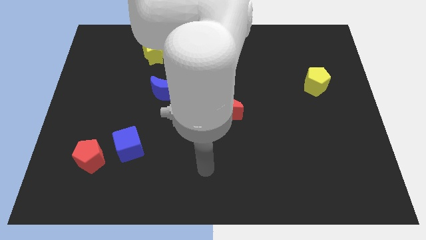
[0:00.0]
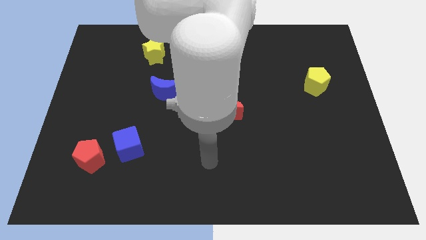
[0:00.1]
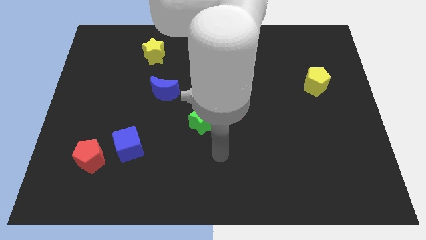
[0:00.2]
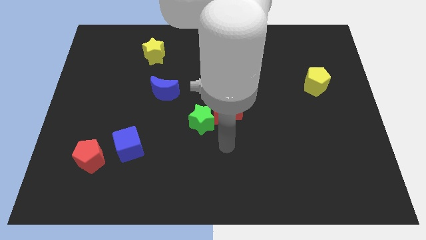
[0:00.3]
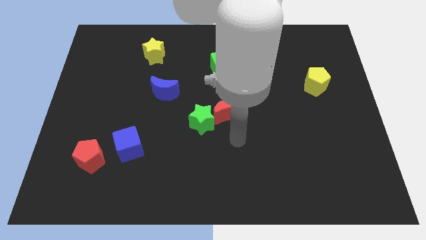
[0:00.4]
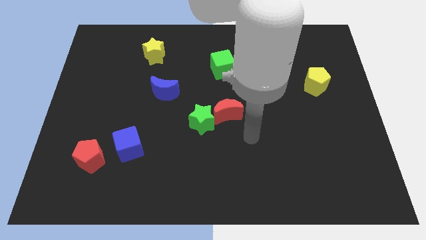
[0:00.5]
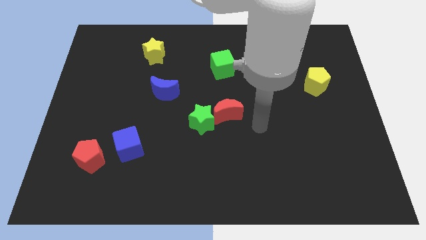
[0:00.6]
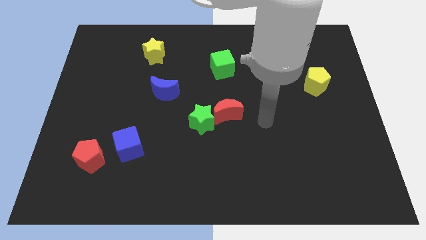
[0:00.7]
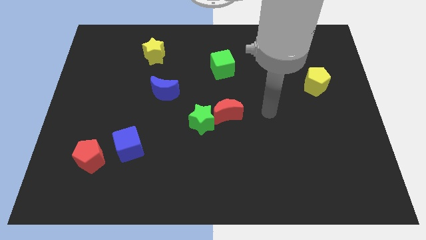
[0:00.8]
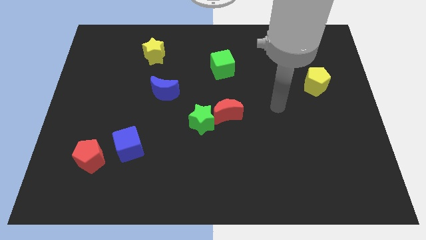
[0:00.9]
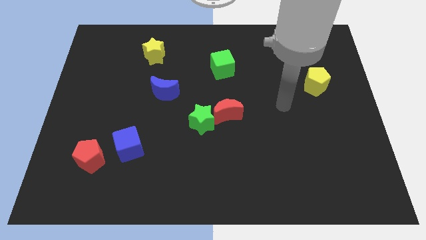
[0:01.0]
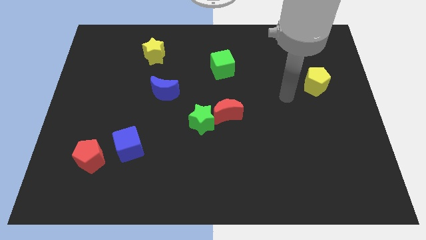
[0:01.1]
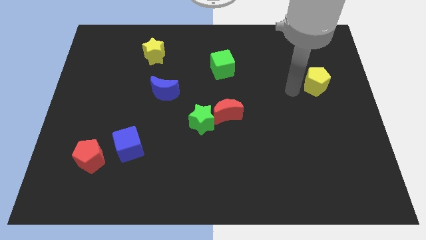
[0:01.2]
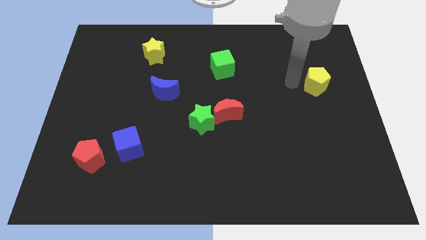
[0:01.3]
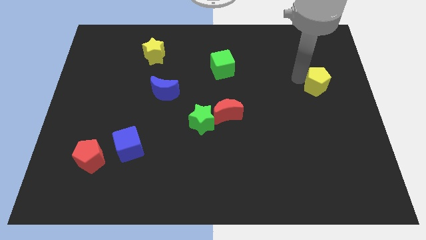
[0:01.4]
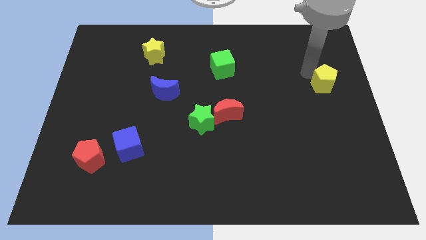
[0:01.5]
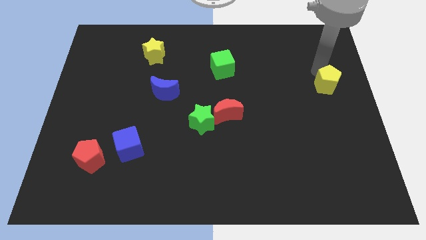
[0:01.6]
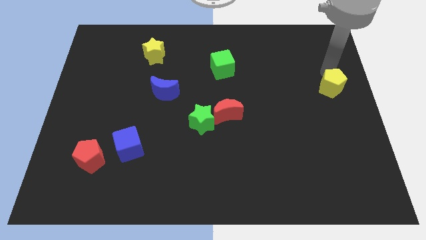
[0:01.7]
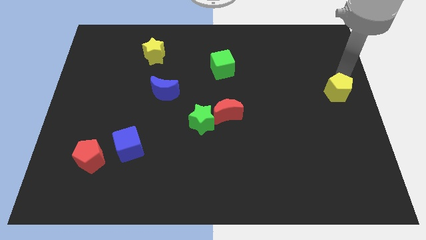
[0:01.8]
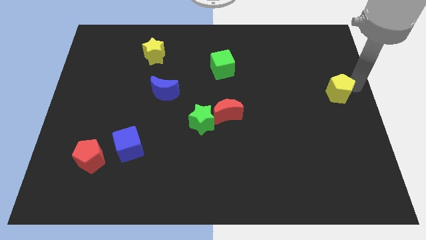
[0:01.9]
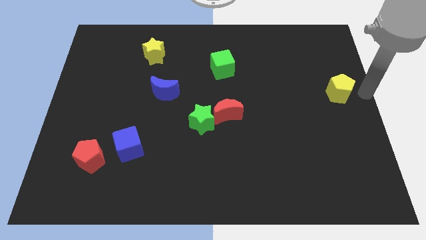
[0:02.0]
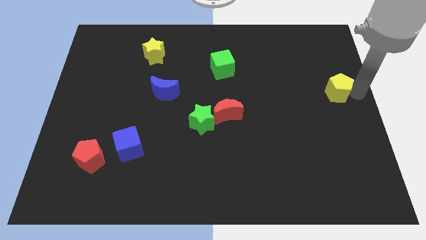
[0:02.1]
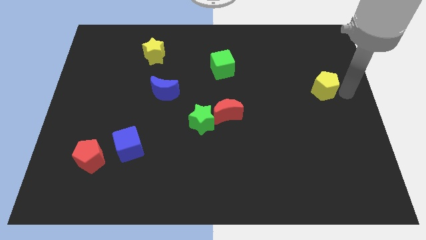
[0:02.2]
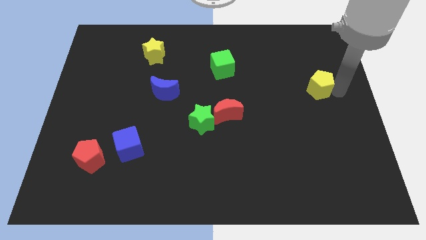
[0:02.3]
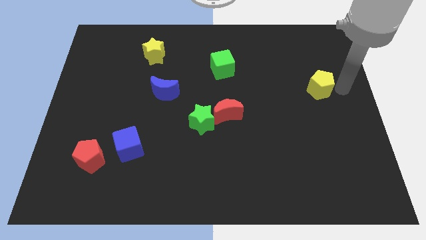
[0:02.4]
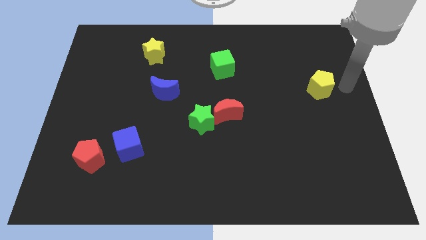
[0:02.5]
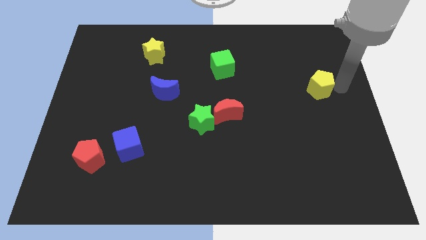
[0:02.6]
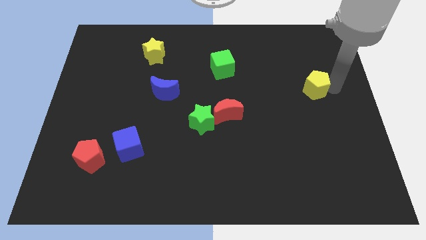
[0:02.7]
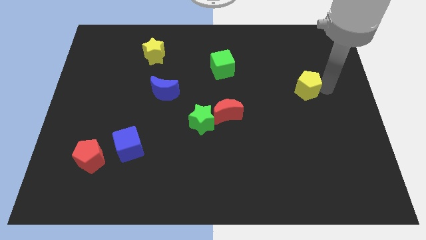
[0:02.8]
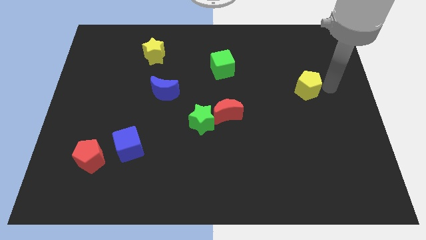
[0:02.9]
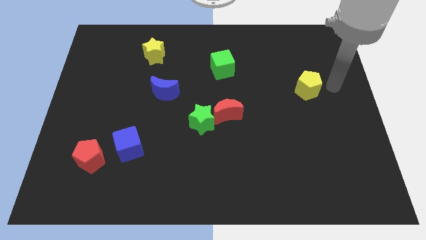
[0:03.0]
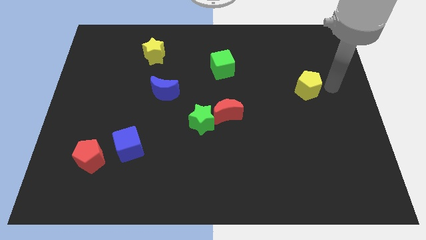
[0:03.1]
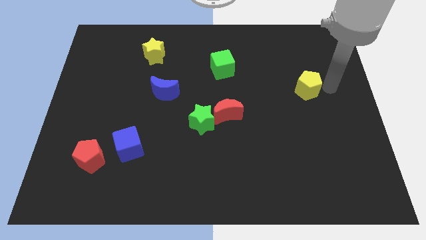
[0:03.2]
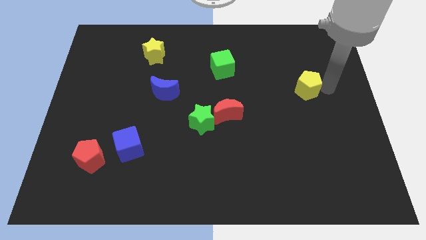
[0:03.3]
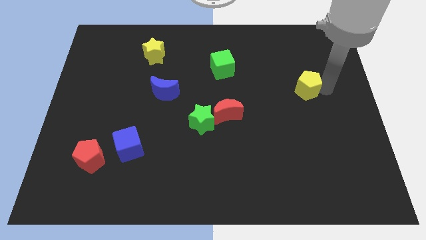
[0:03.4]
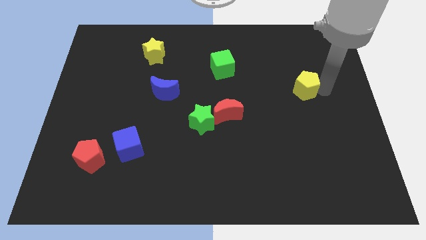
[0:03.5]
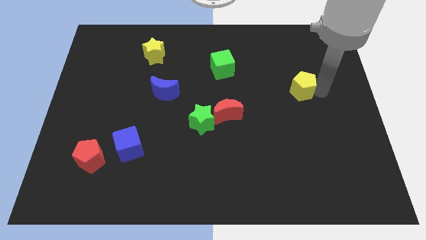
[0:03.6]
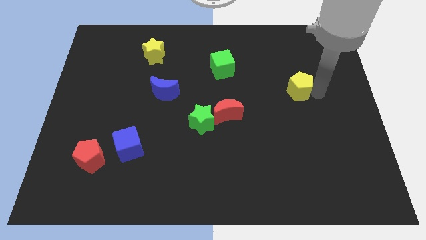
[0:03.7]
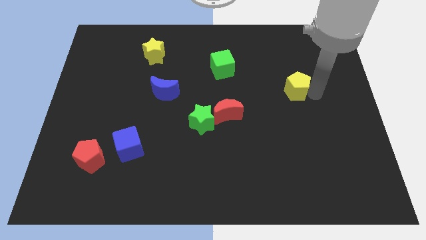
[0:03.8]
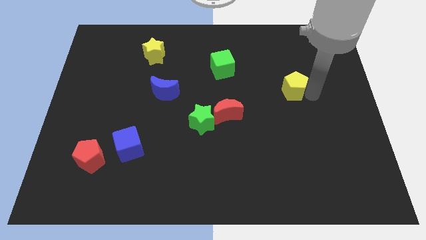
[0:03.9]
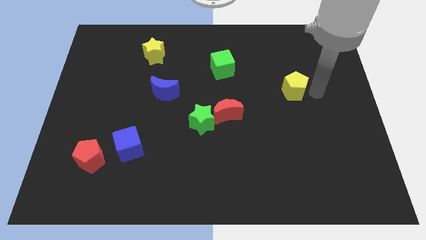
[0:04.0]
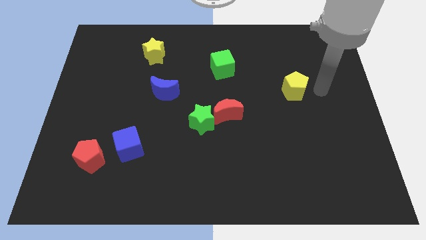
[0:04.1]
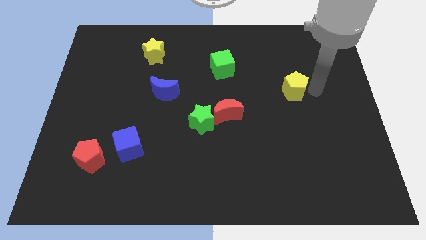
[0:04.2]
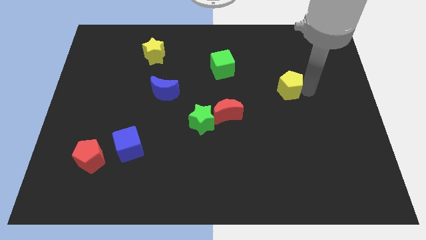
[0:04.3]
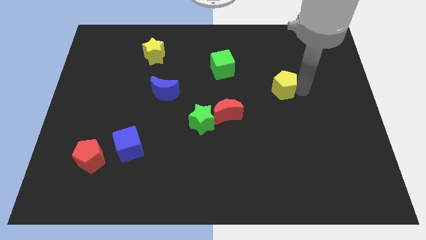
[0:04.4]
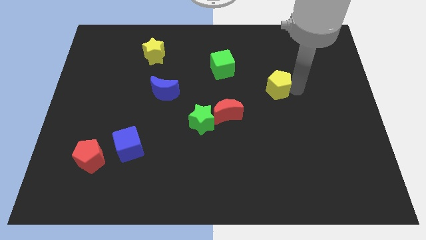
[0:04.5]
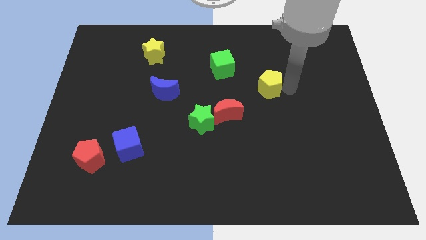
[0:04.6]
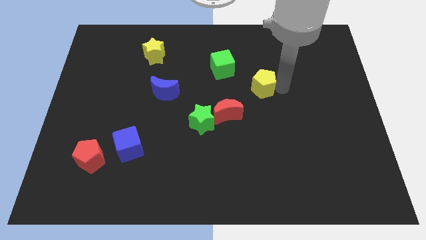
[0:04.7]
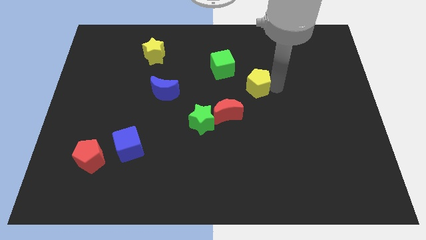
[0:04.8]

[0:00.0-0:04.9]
move the yellow pentagon to the center of the board

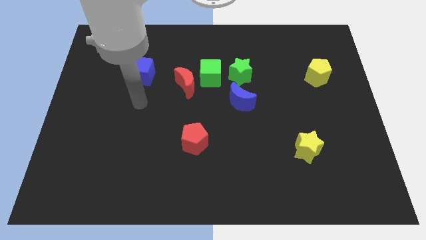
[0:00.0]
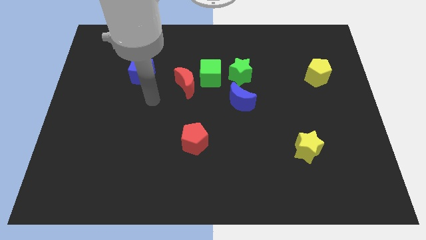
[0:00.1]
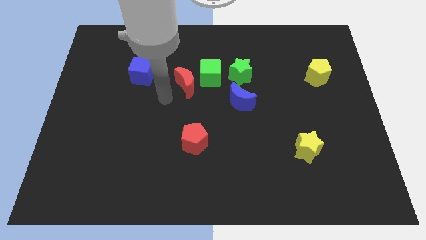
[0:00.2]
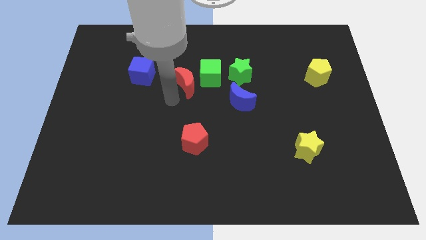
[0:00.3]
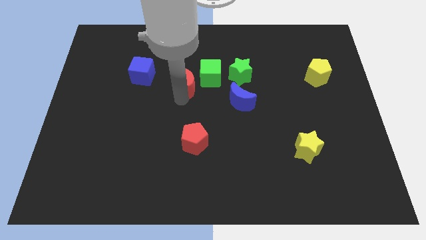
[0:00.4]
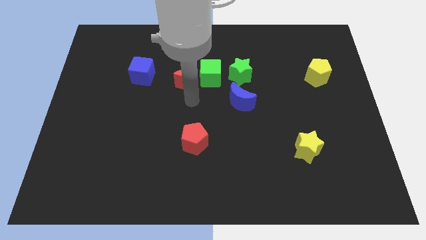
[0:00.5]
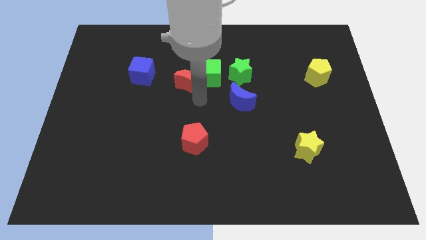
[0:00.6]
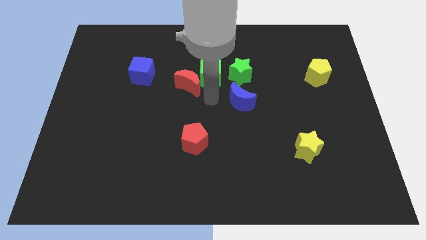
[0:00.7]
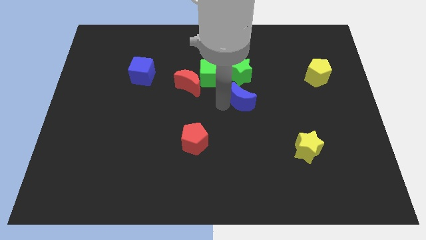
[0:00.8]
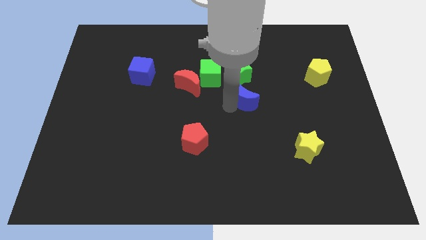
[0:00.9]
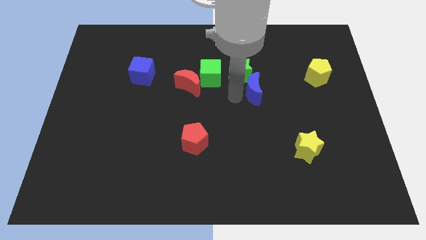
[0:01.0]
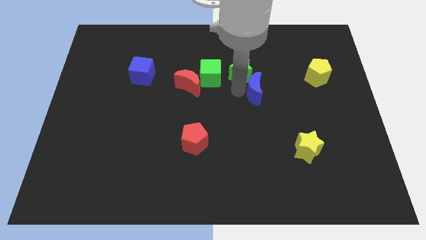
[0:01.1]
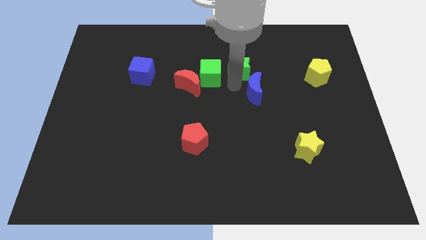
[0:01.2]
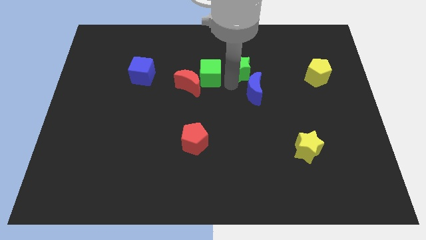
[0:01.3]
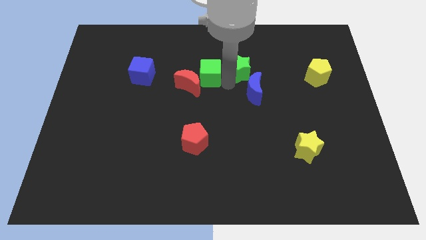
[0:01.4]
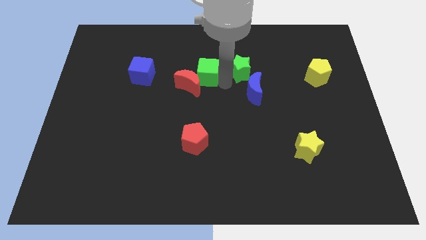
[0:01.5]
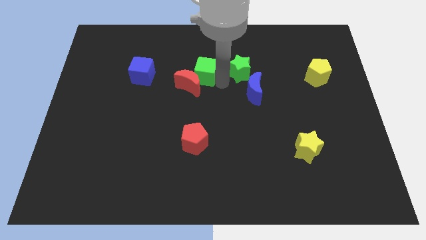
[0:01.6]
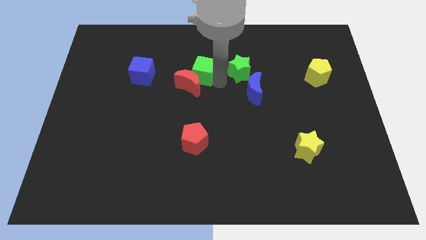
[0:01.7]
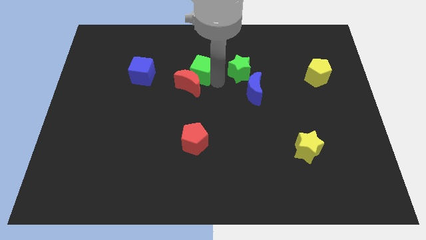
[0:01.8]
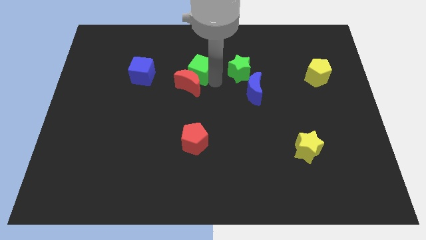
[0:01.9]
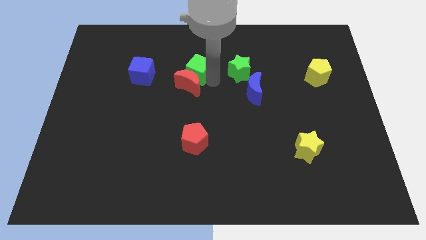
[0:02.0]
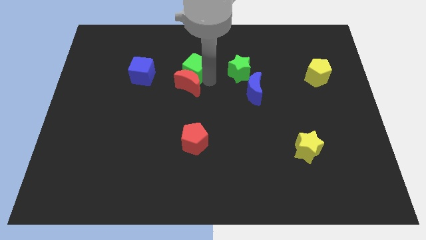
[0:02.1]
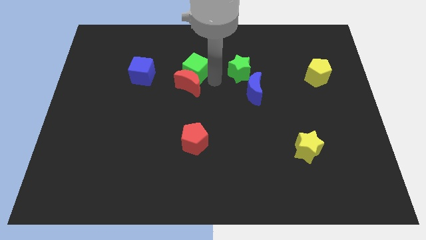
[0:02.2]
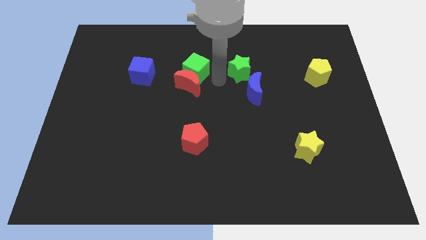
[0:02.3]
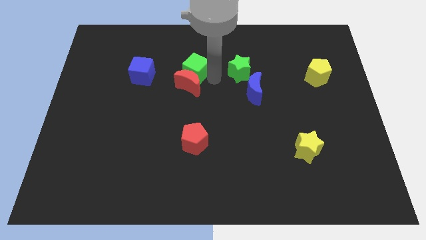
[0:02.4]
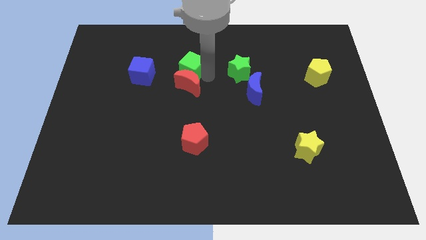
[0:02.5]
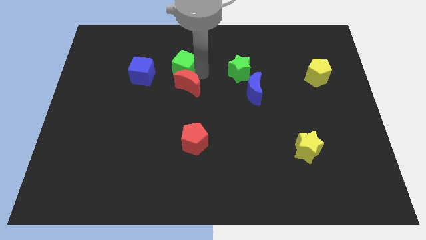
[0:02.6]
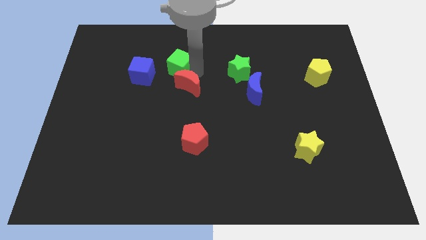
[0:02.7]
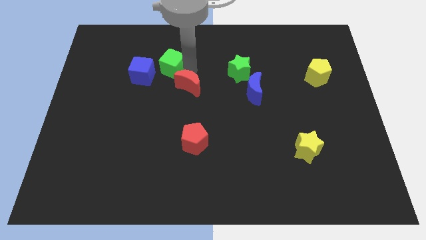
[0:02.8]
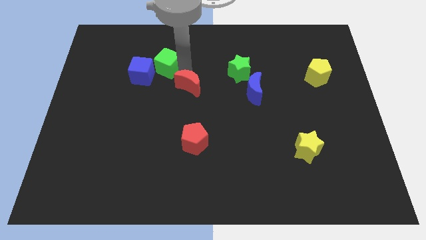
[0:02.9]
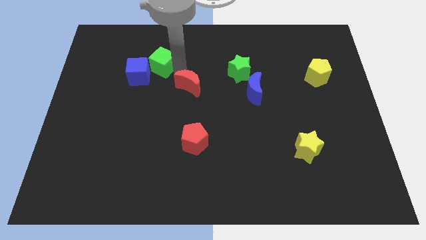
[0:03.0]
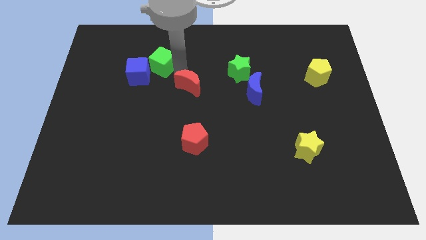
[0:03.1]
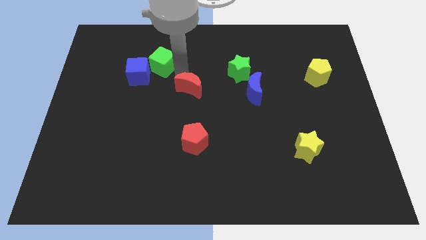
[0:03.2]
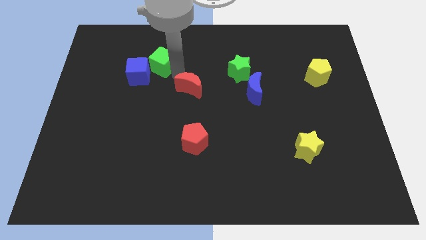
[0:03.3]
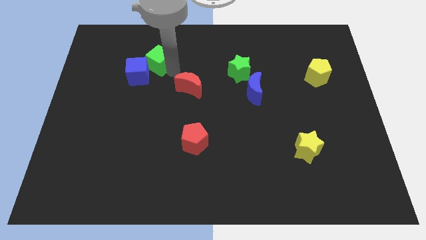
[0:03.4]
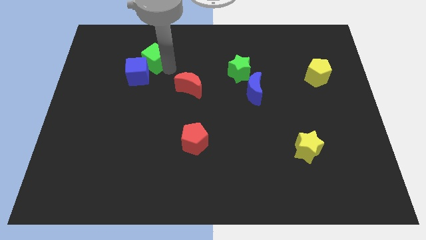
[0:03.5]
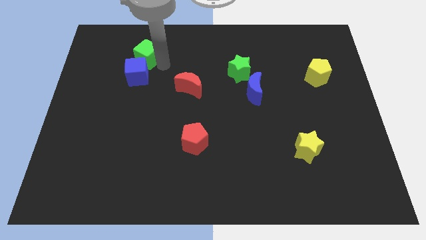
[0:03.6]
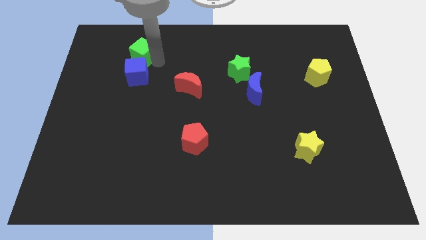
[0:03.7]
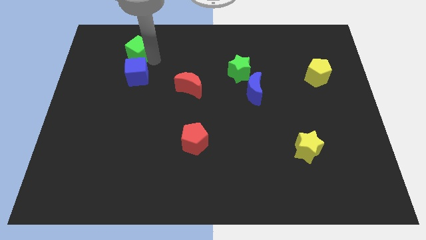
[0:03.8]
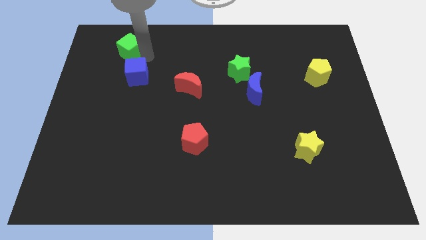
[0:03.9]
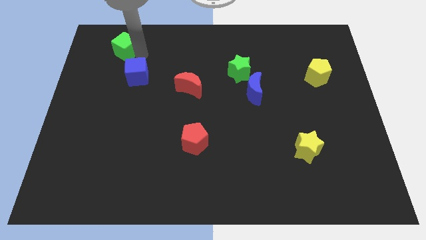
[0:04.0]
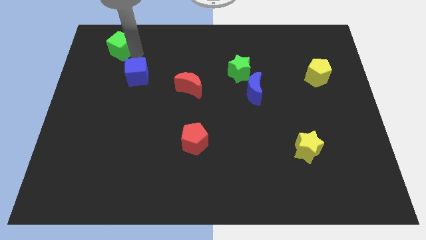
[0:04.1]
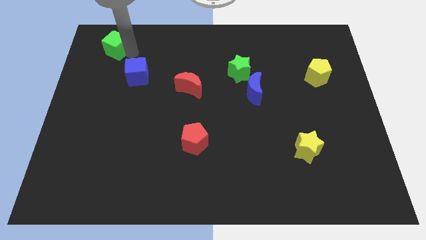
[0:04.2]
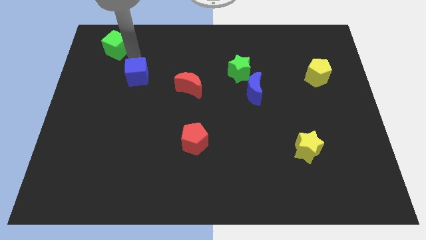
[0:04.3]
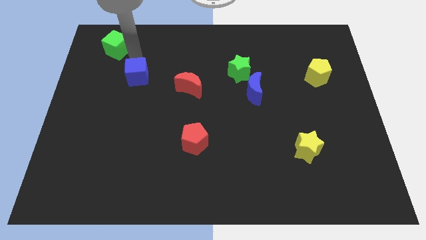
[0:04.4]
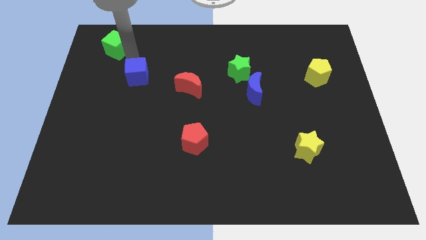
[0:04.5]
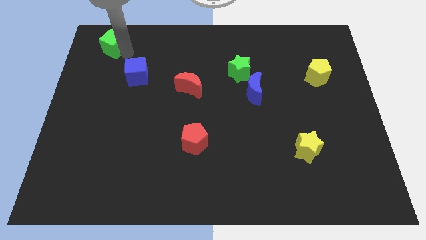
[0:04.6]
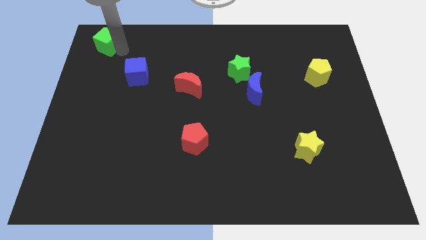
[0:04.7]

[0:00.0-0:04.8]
move the green cube to the top left of the board
